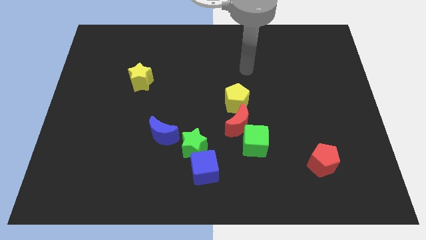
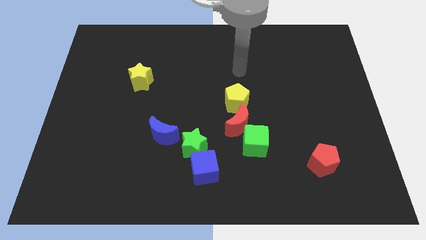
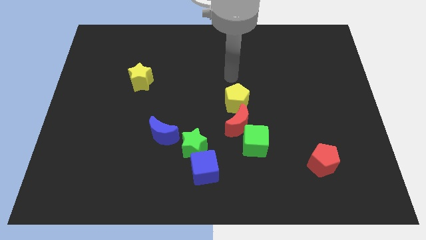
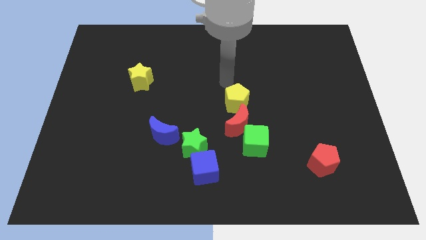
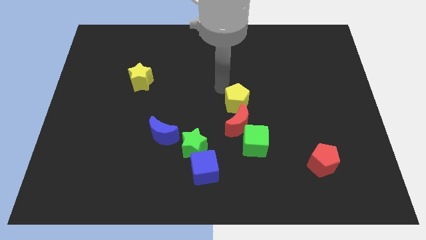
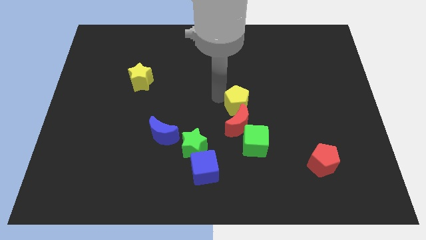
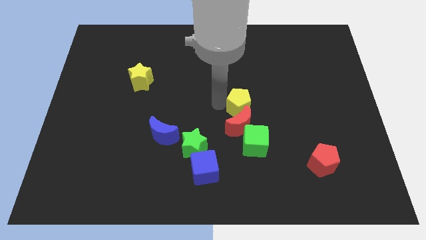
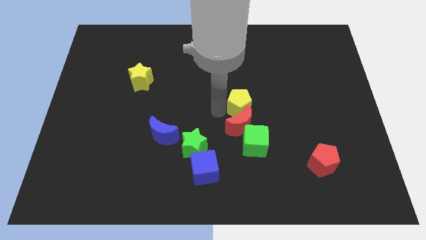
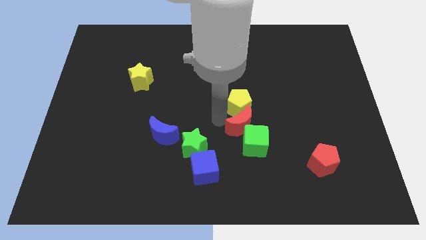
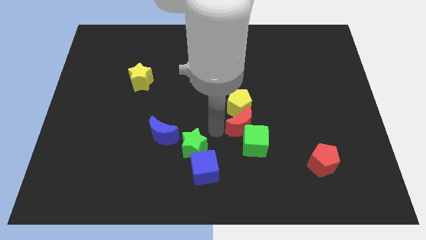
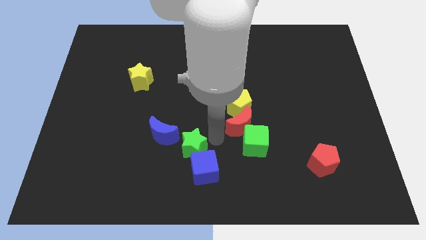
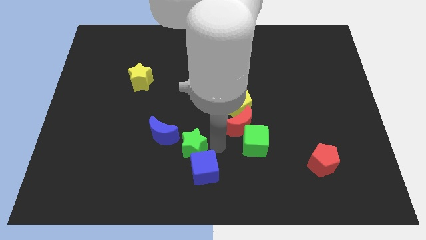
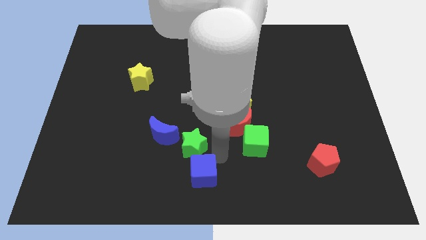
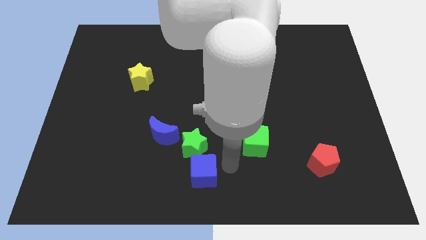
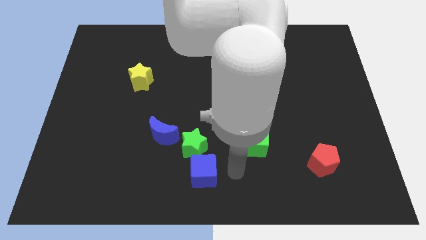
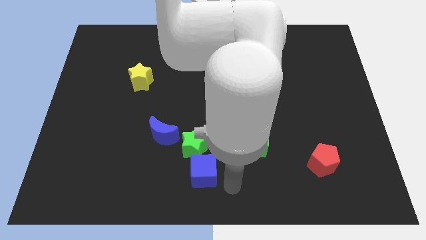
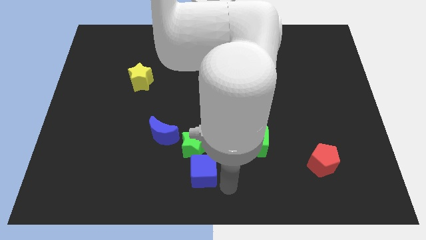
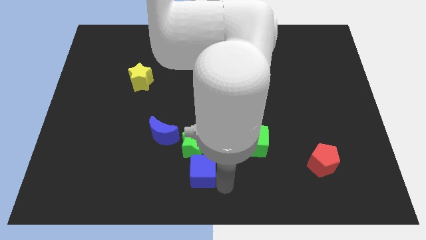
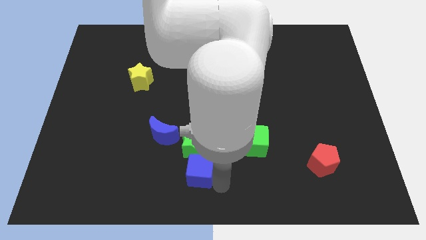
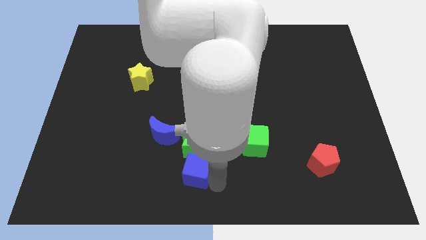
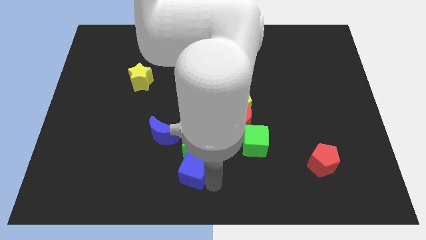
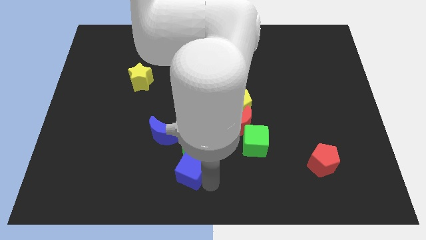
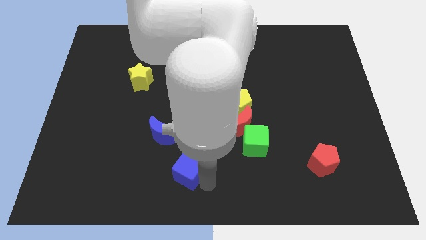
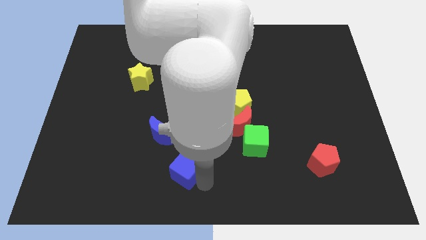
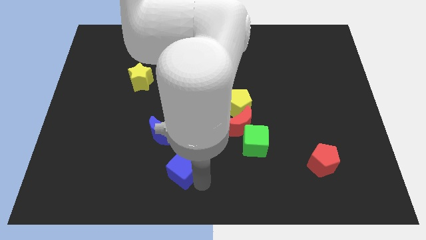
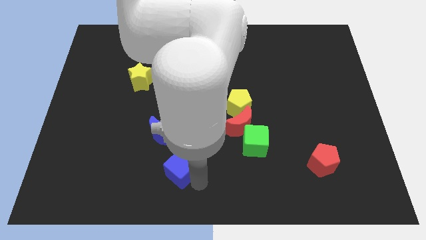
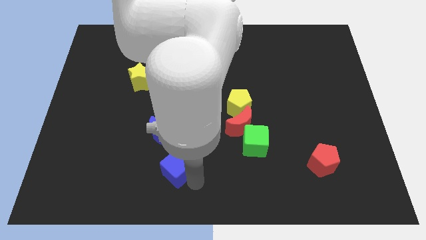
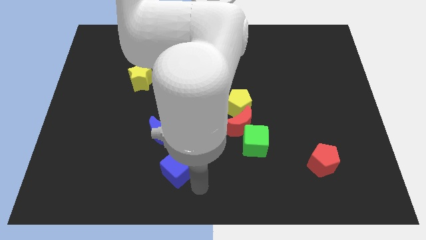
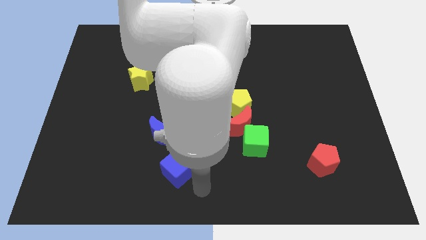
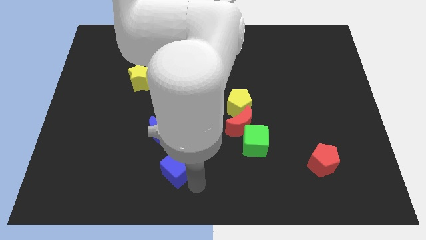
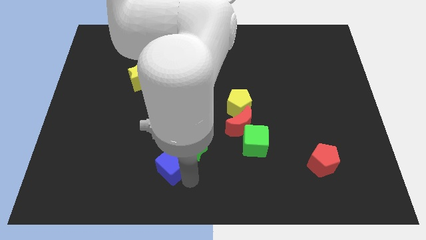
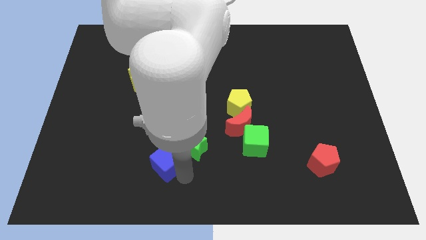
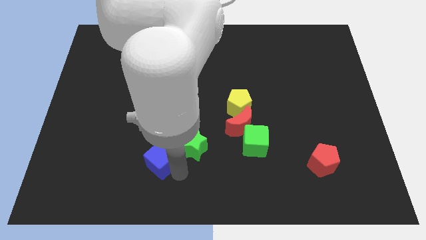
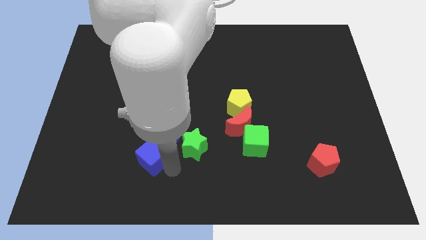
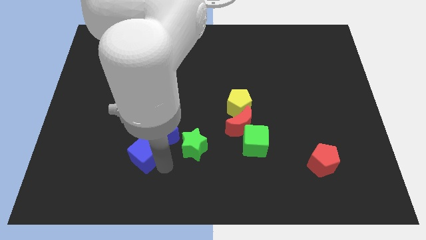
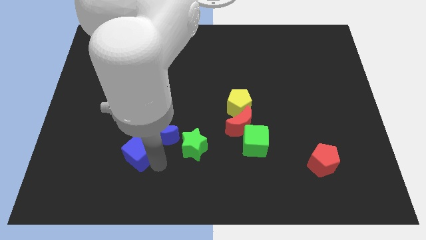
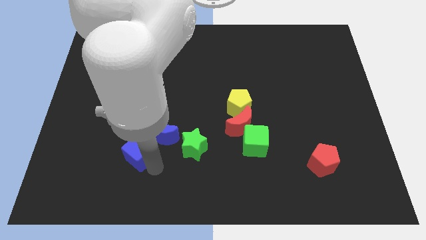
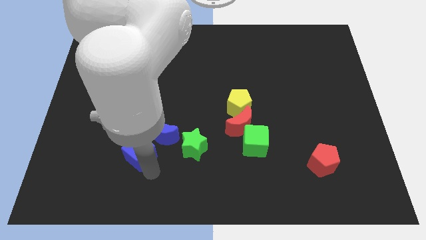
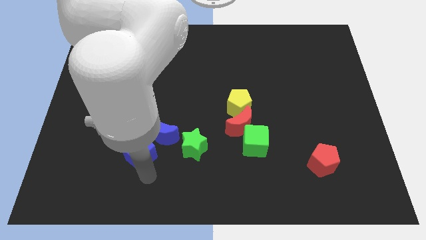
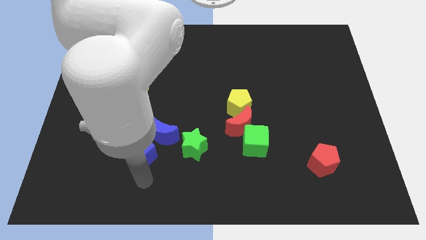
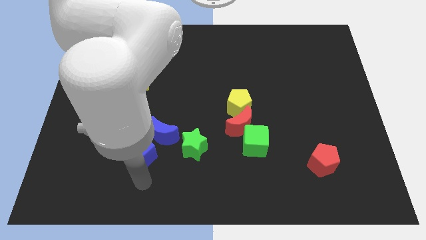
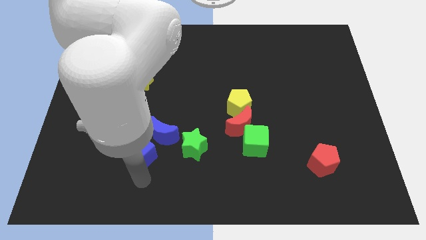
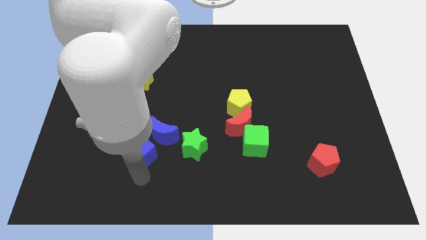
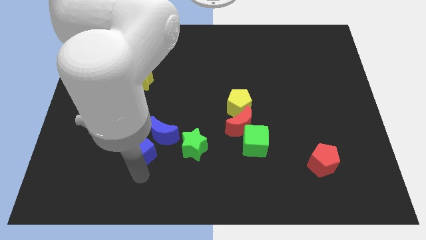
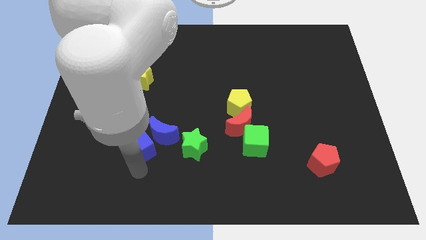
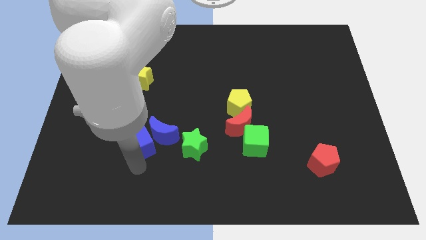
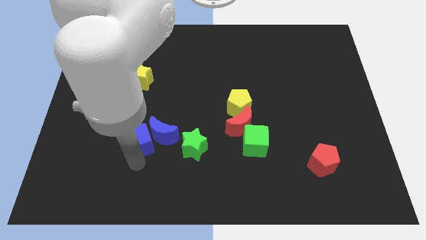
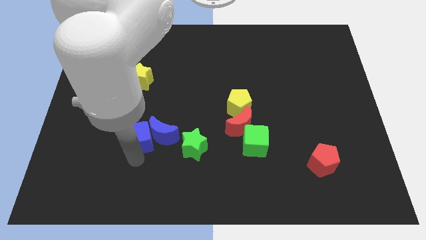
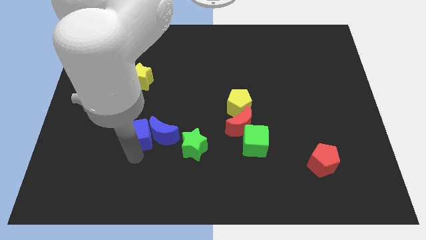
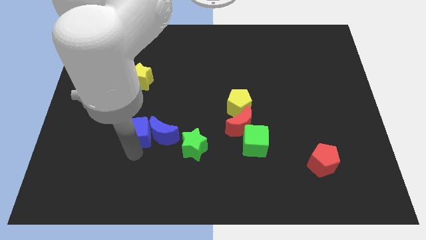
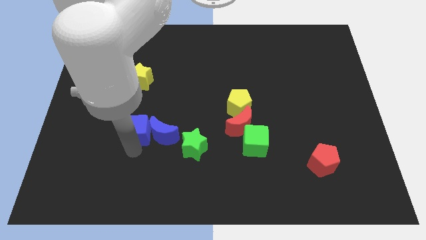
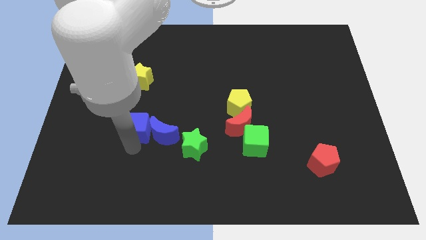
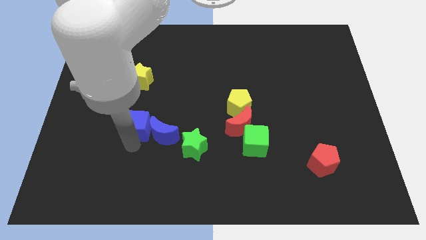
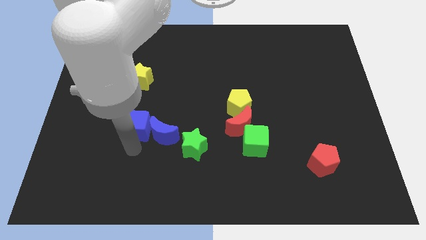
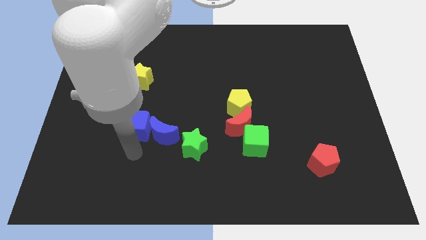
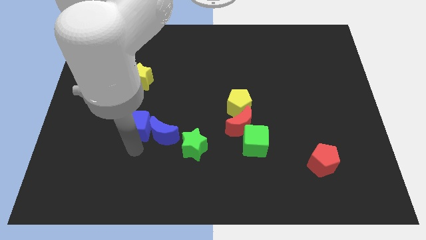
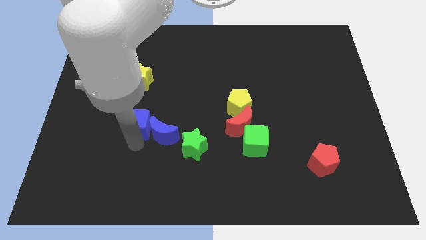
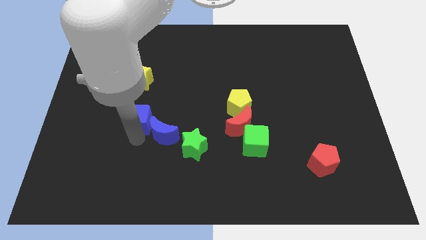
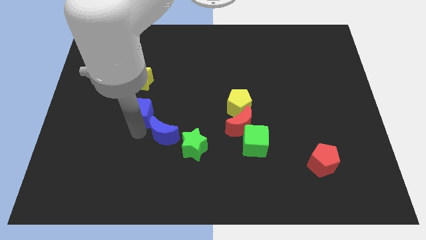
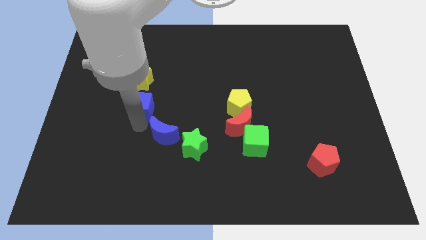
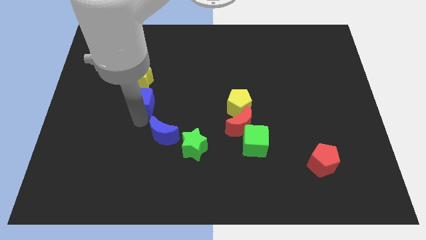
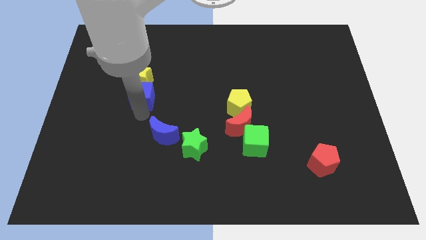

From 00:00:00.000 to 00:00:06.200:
put the blue cube to the yellow star

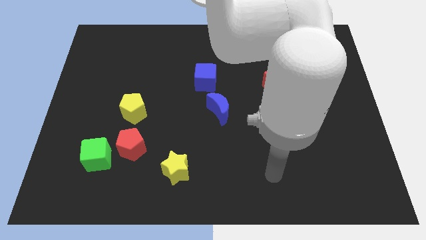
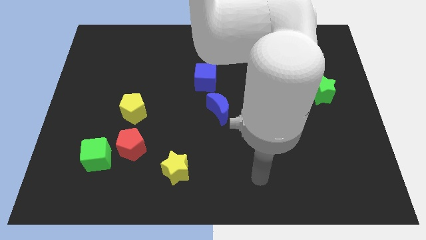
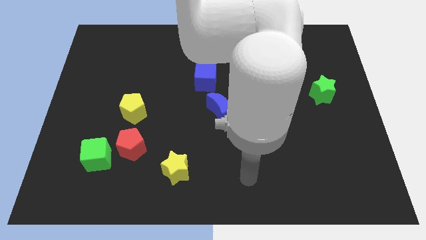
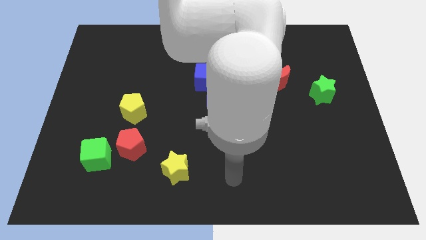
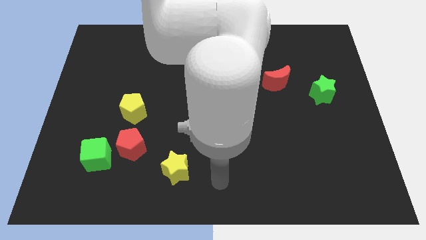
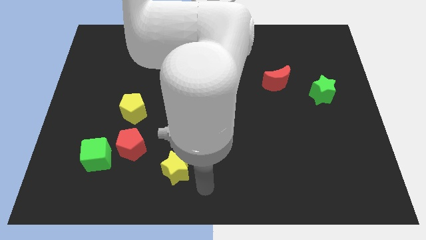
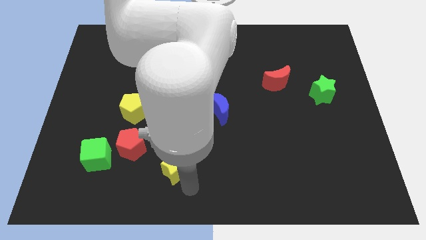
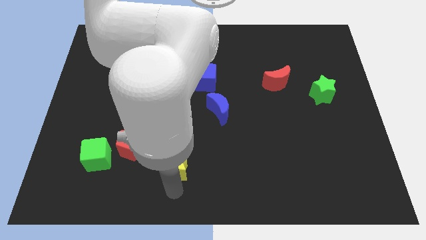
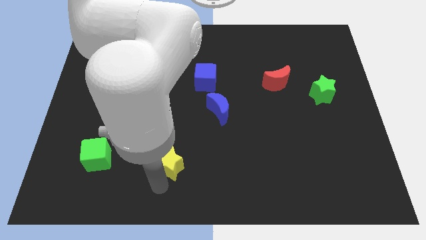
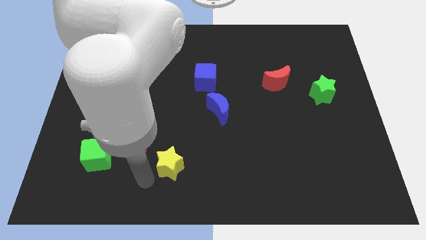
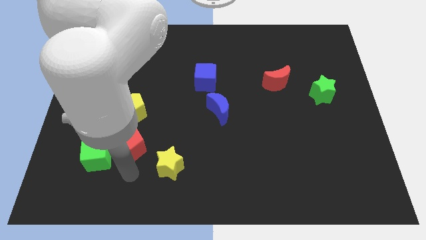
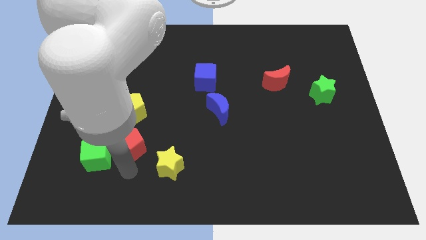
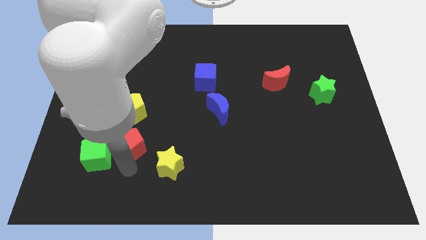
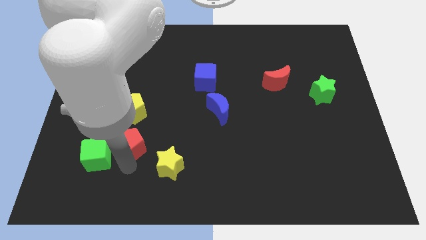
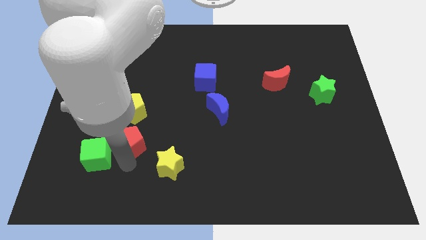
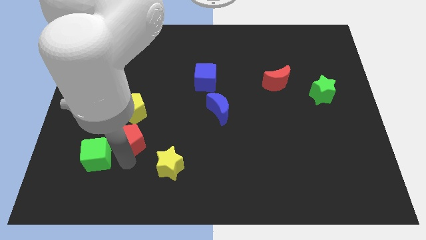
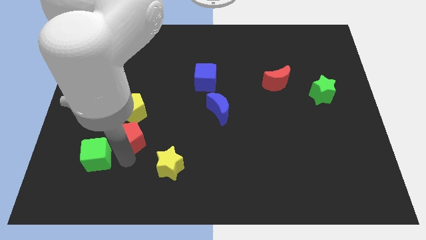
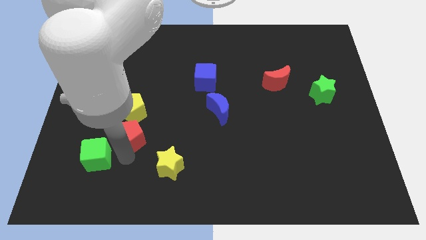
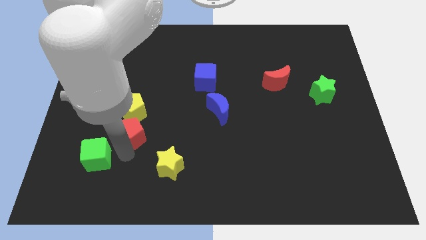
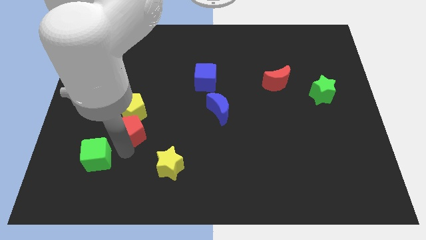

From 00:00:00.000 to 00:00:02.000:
move the red pentagon next to the yellow pentagon

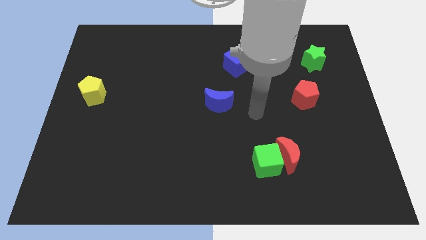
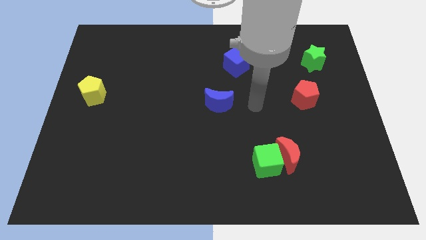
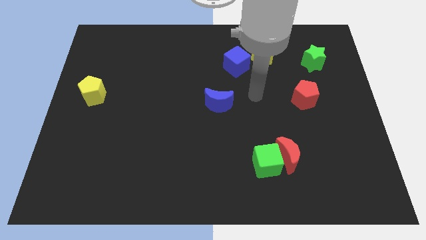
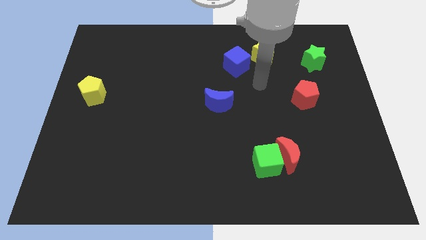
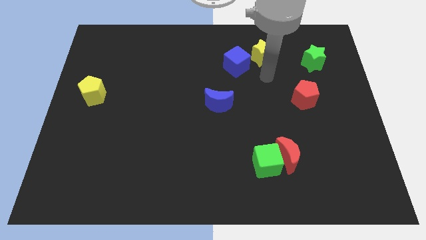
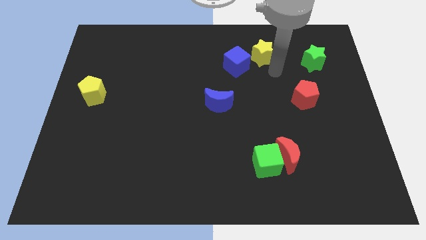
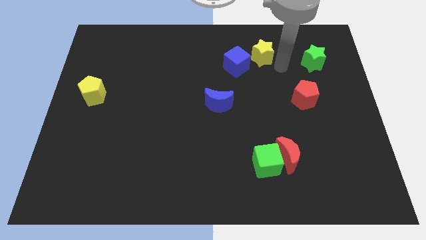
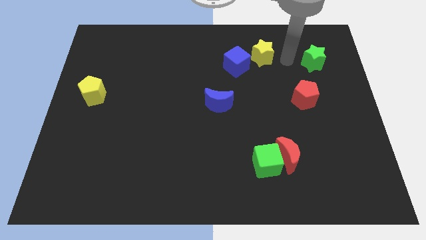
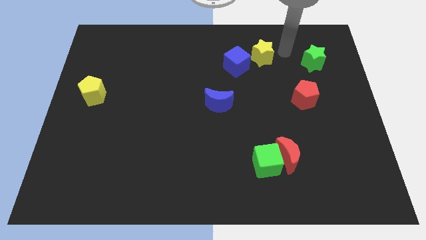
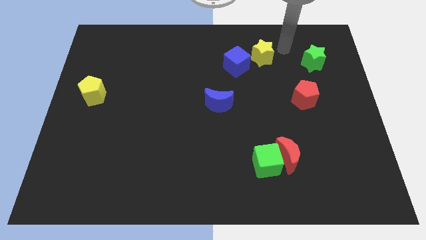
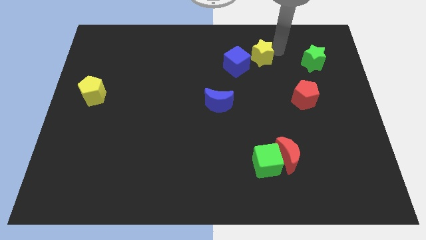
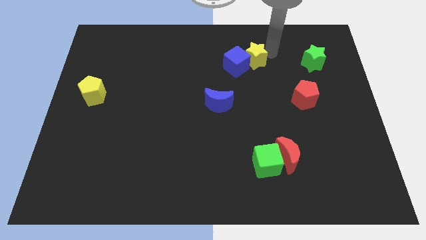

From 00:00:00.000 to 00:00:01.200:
slide the yellow star to the blue cube
